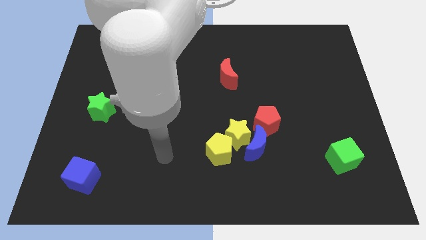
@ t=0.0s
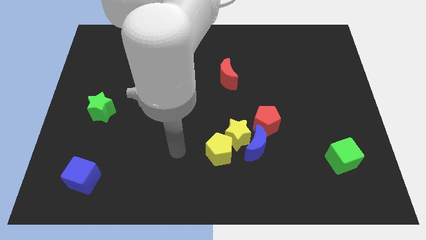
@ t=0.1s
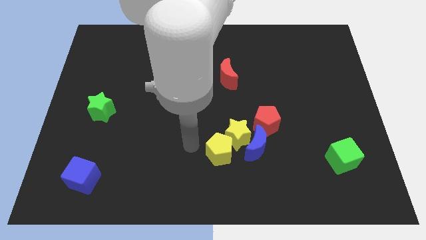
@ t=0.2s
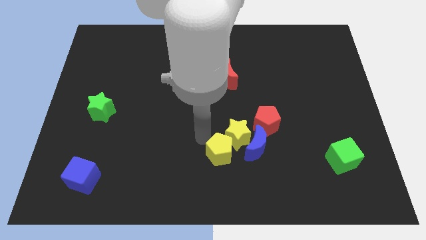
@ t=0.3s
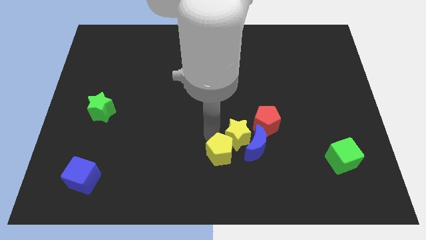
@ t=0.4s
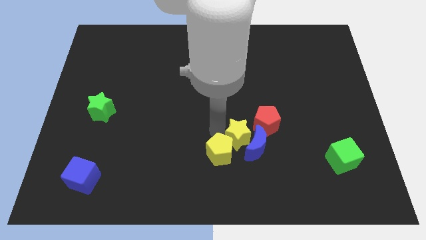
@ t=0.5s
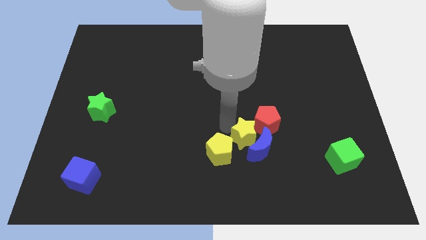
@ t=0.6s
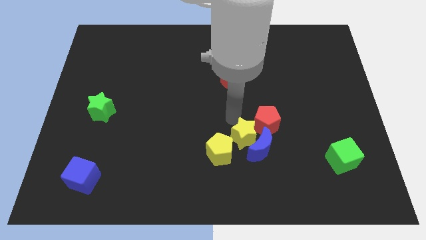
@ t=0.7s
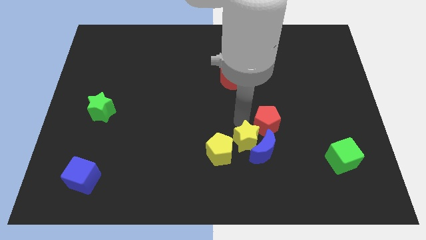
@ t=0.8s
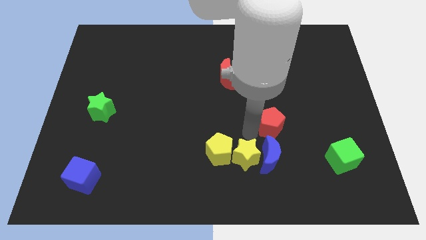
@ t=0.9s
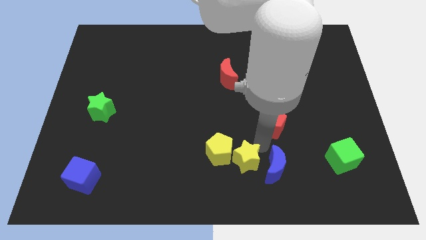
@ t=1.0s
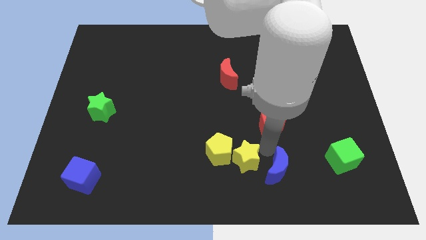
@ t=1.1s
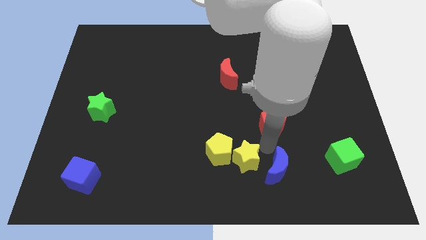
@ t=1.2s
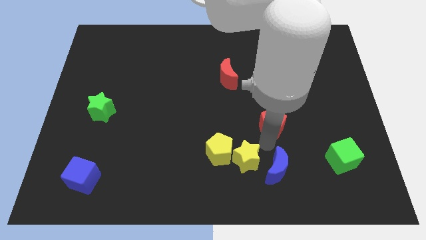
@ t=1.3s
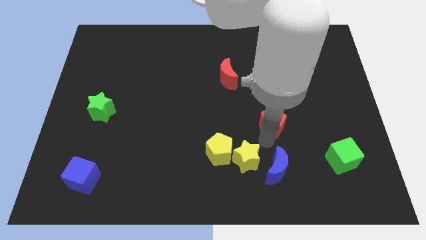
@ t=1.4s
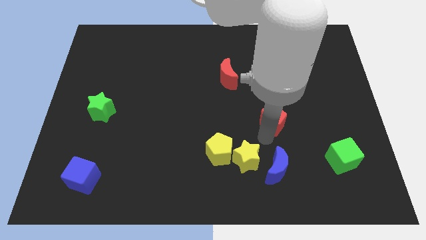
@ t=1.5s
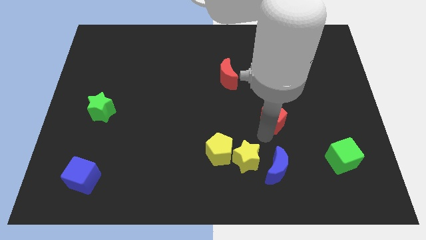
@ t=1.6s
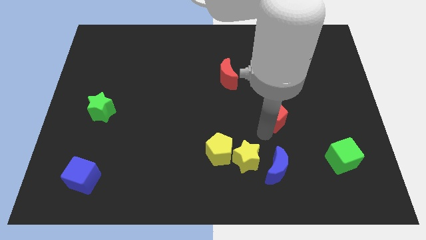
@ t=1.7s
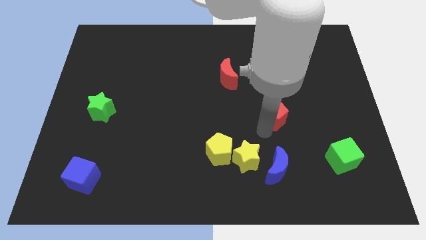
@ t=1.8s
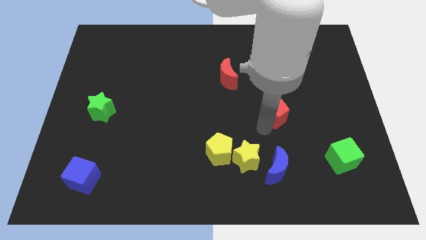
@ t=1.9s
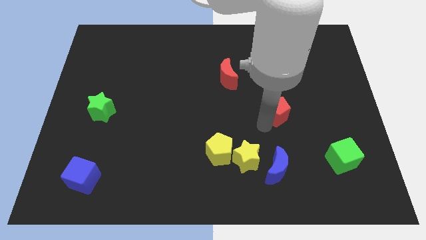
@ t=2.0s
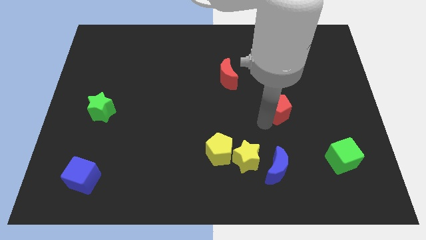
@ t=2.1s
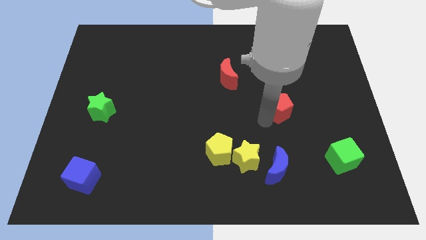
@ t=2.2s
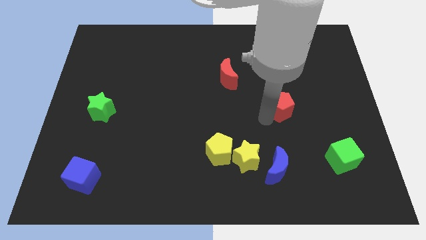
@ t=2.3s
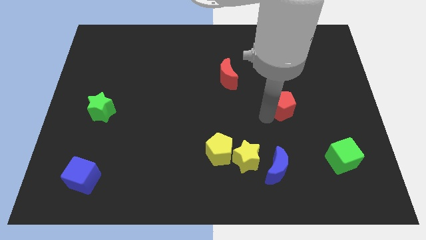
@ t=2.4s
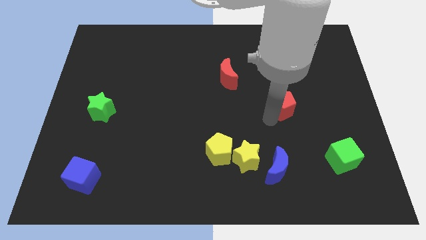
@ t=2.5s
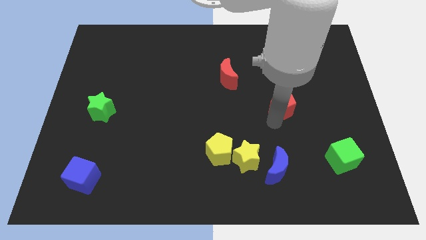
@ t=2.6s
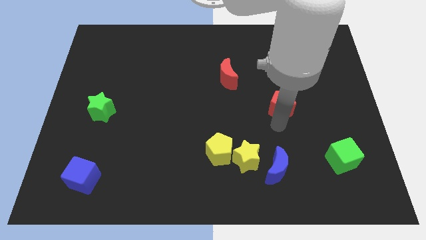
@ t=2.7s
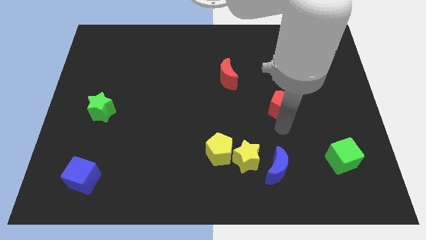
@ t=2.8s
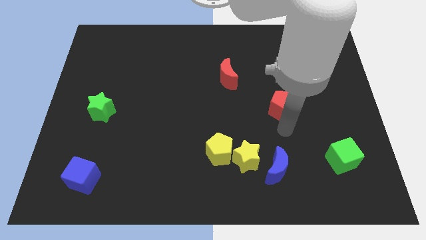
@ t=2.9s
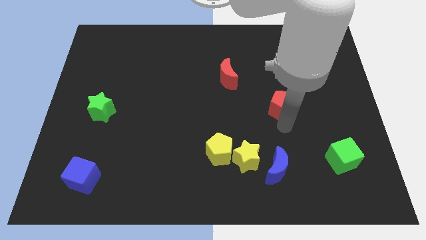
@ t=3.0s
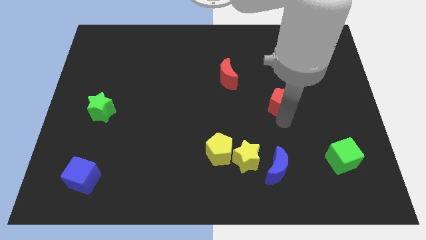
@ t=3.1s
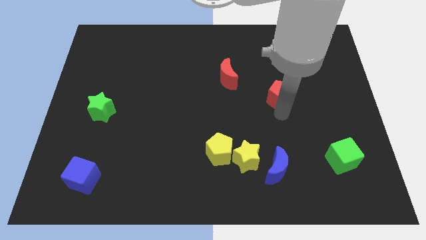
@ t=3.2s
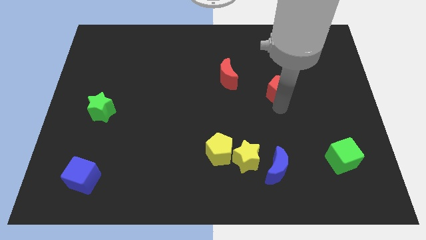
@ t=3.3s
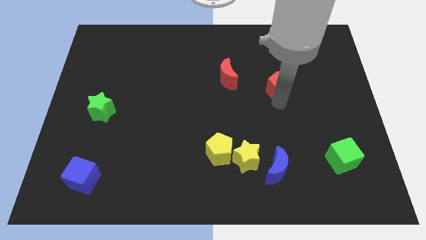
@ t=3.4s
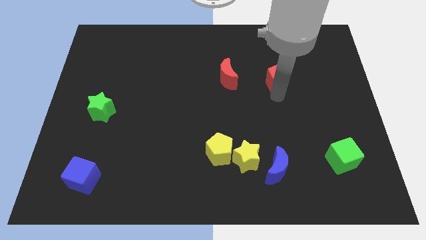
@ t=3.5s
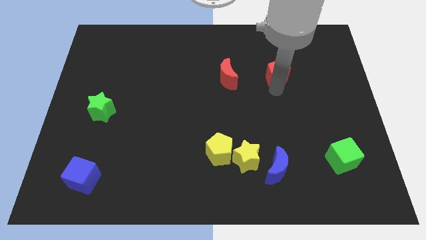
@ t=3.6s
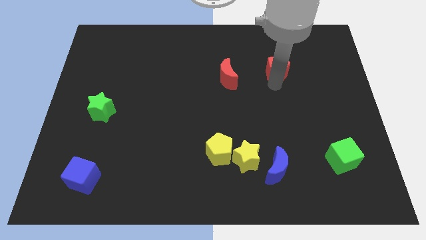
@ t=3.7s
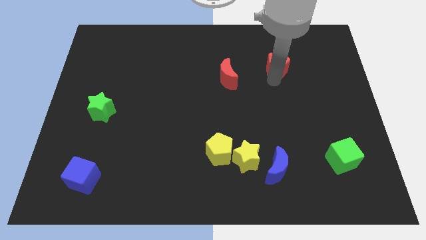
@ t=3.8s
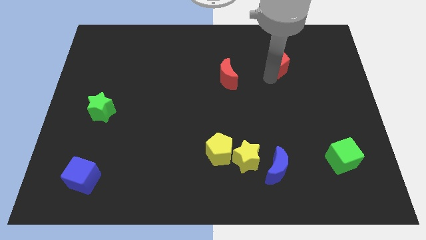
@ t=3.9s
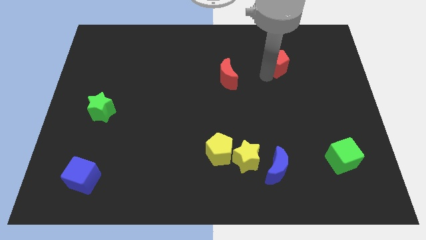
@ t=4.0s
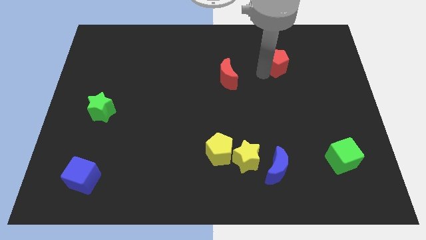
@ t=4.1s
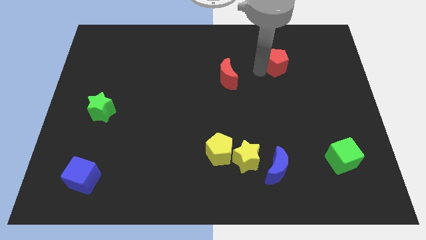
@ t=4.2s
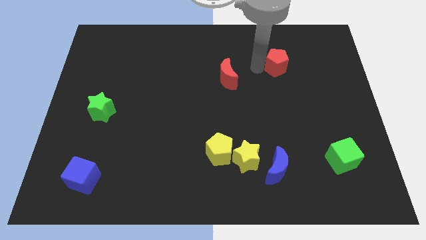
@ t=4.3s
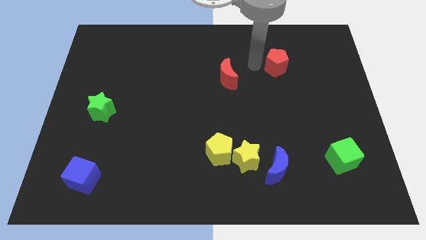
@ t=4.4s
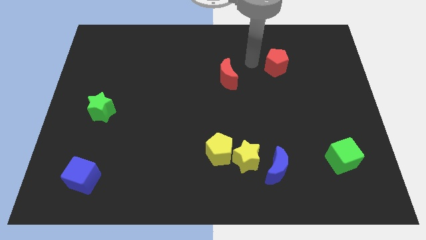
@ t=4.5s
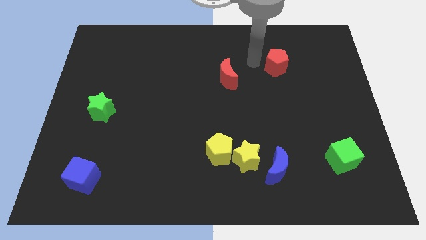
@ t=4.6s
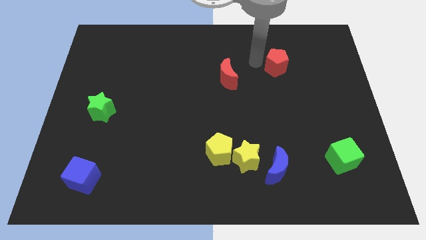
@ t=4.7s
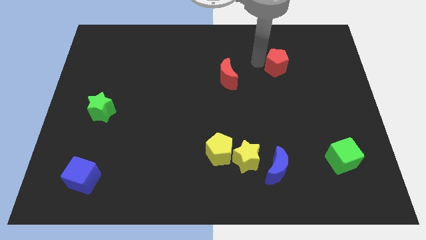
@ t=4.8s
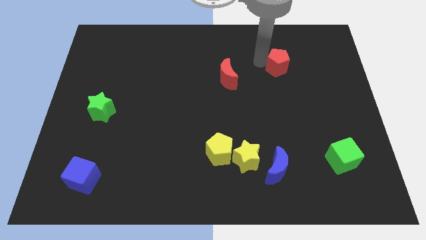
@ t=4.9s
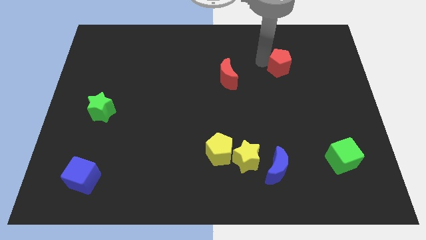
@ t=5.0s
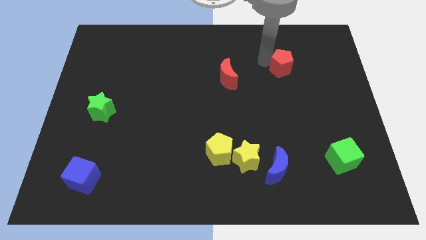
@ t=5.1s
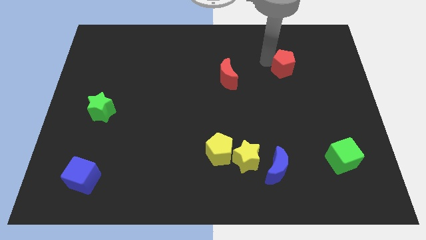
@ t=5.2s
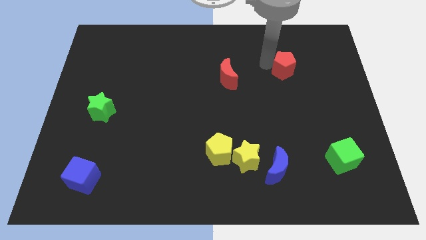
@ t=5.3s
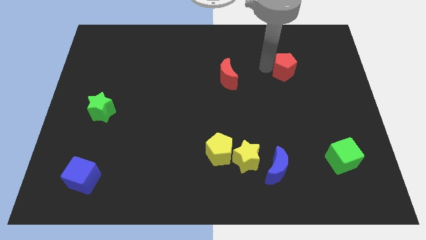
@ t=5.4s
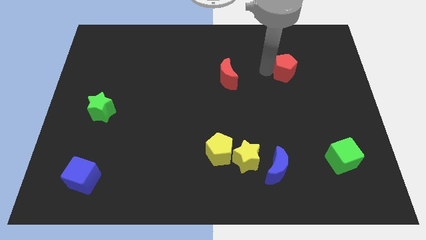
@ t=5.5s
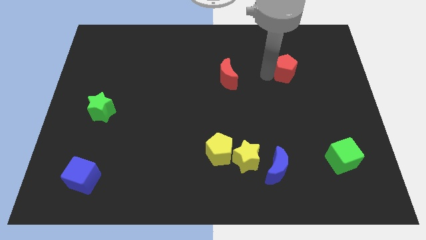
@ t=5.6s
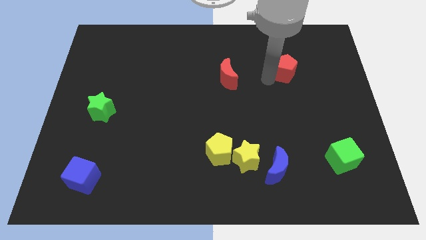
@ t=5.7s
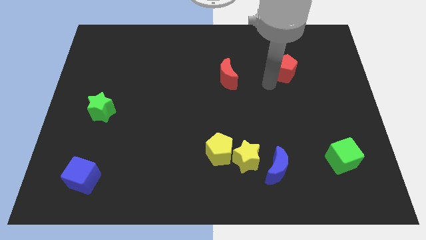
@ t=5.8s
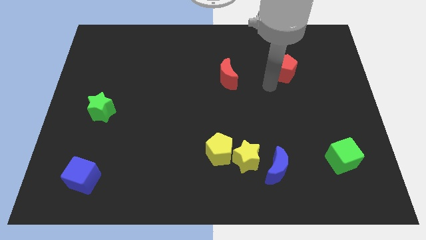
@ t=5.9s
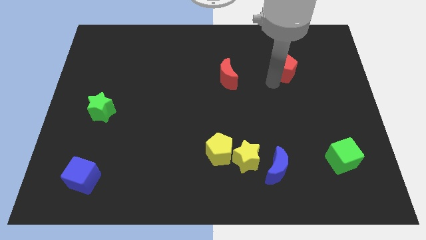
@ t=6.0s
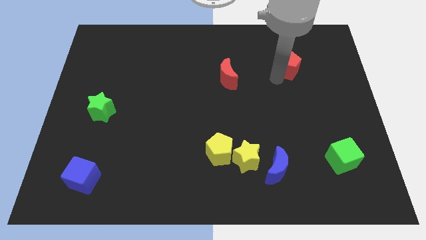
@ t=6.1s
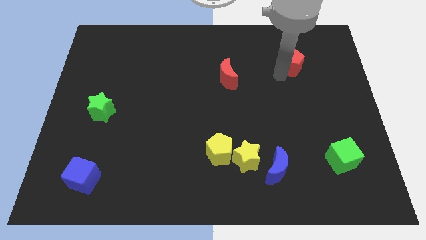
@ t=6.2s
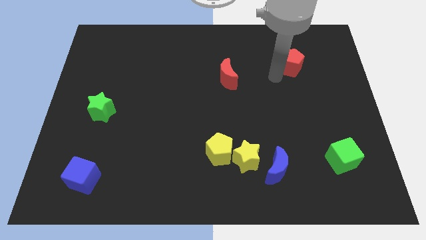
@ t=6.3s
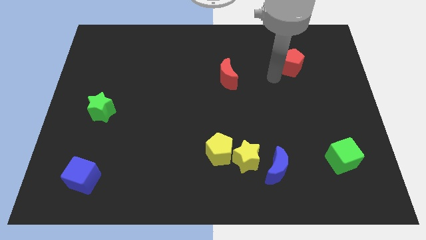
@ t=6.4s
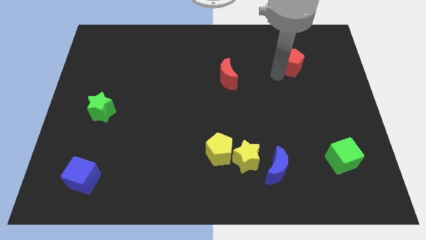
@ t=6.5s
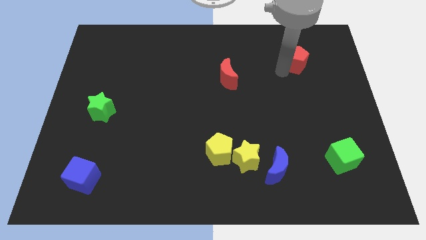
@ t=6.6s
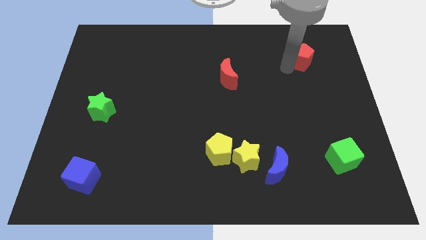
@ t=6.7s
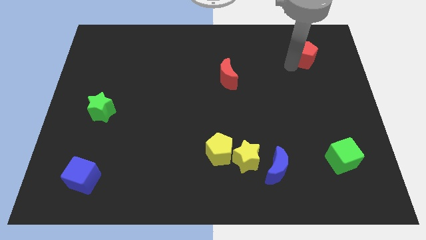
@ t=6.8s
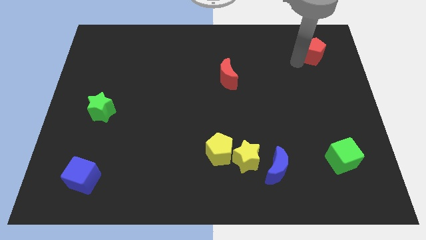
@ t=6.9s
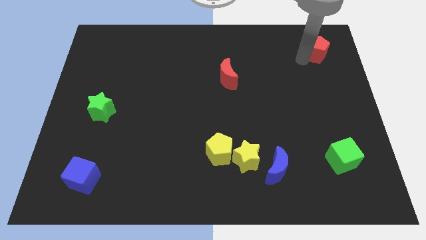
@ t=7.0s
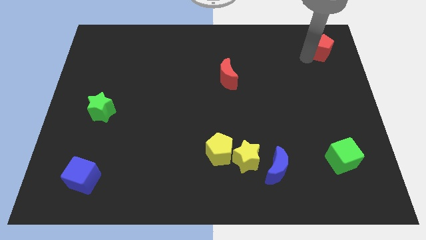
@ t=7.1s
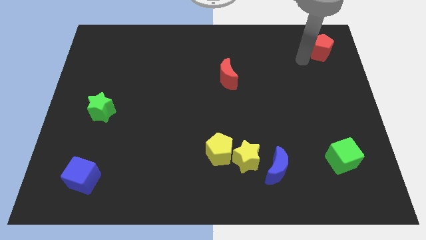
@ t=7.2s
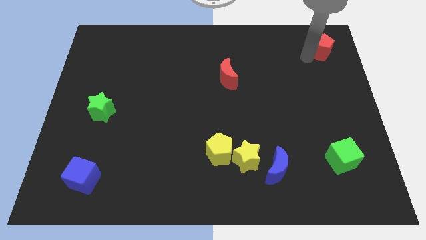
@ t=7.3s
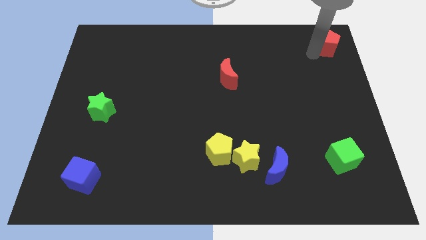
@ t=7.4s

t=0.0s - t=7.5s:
slide the red pentagon to the top right
